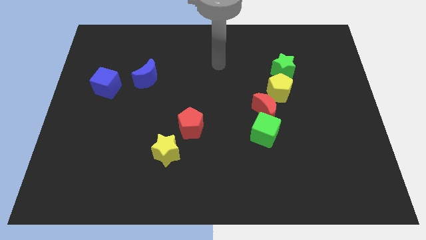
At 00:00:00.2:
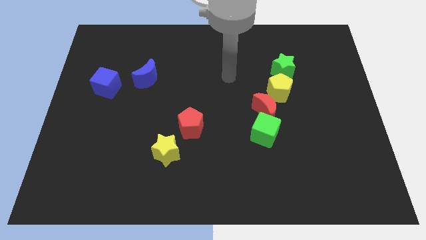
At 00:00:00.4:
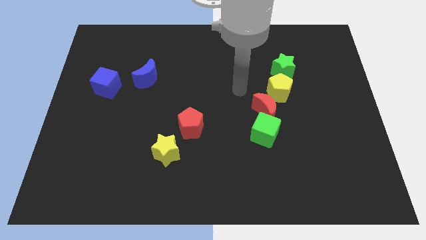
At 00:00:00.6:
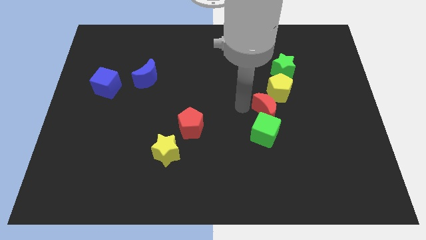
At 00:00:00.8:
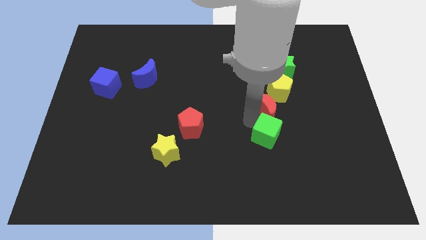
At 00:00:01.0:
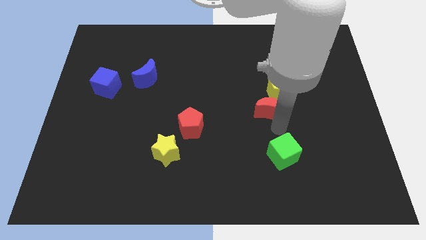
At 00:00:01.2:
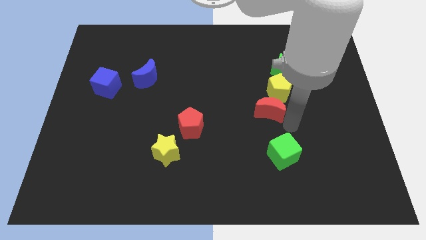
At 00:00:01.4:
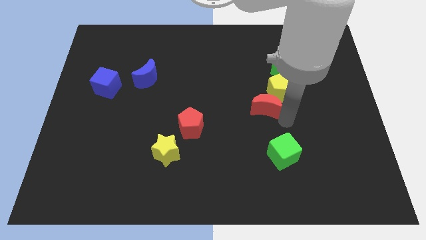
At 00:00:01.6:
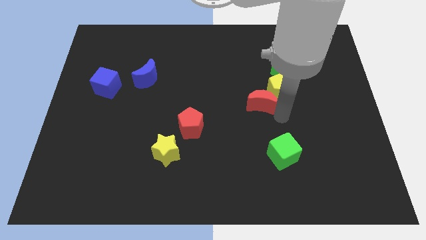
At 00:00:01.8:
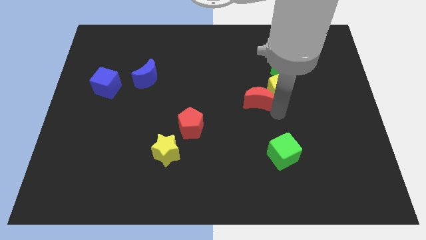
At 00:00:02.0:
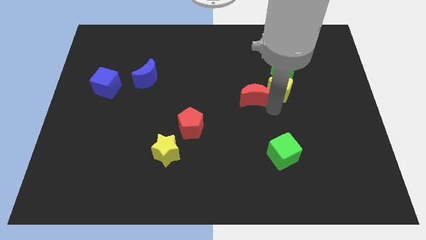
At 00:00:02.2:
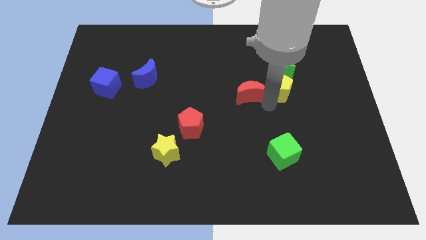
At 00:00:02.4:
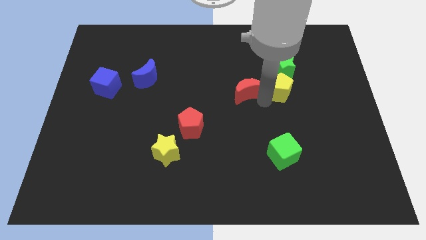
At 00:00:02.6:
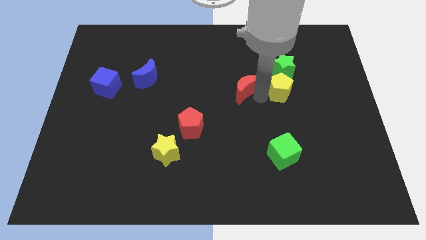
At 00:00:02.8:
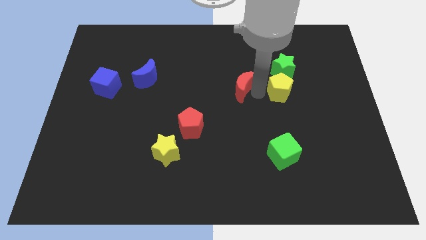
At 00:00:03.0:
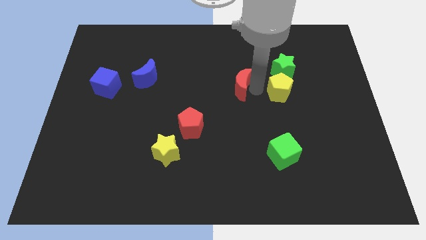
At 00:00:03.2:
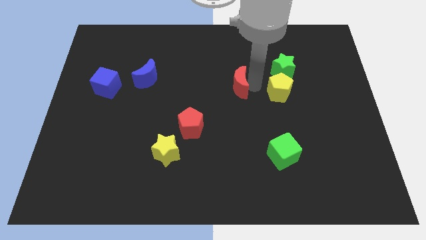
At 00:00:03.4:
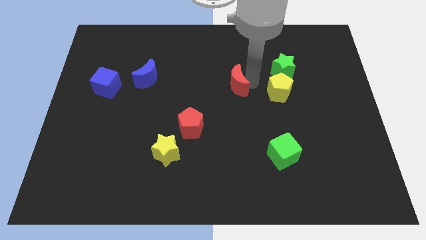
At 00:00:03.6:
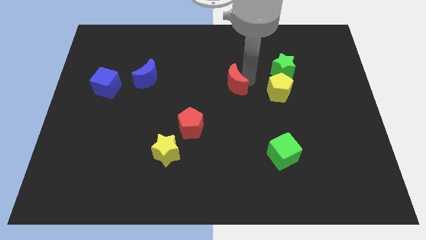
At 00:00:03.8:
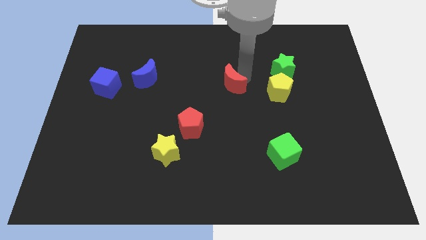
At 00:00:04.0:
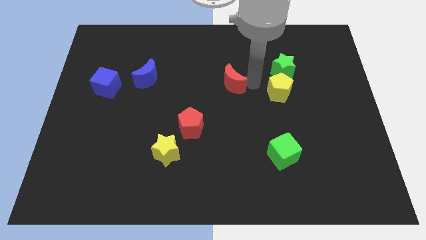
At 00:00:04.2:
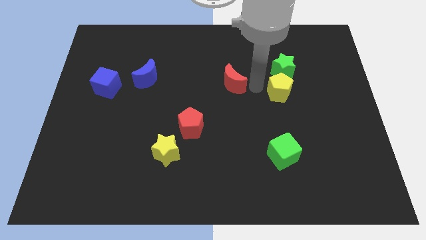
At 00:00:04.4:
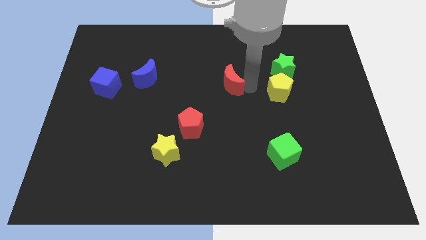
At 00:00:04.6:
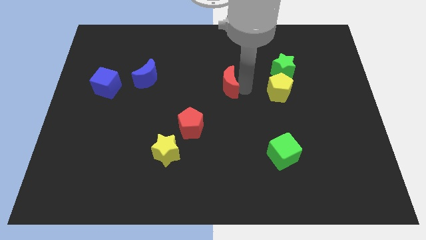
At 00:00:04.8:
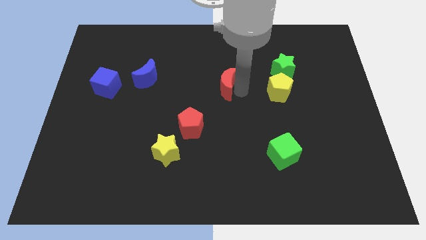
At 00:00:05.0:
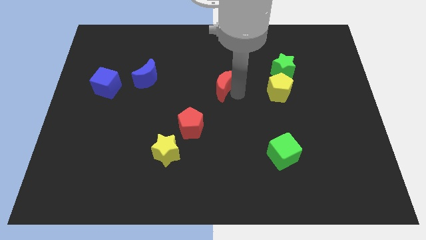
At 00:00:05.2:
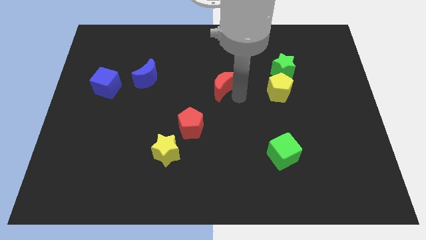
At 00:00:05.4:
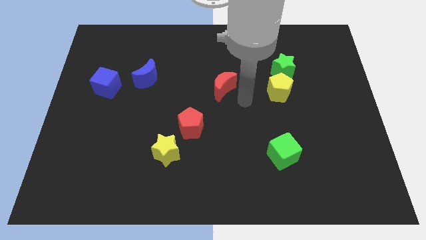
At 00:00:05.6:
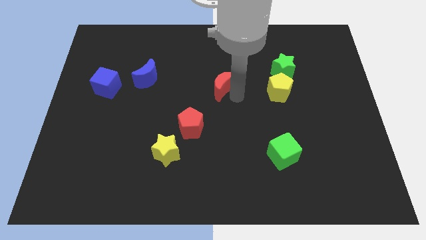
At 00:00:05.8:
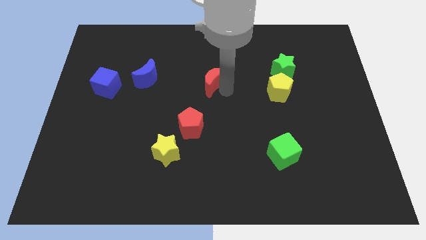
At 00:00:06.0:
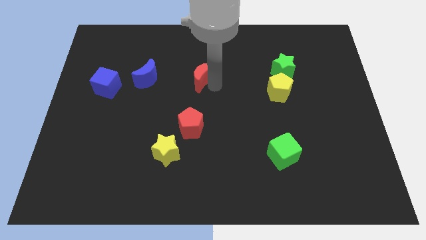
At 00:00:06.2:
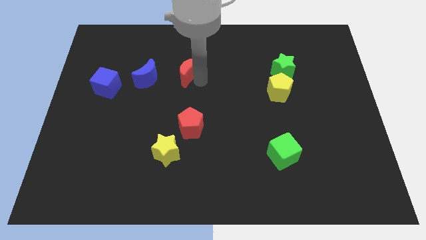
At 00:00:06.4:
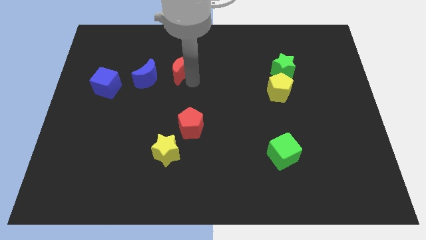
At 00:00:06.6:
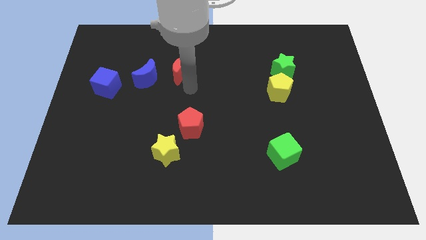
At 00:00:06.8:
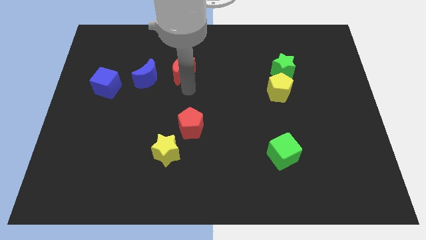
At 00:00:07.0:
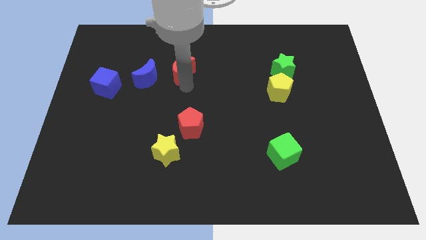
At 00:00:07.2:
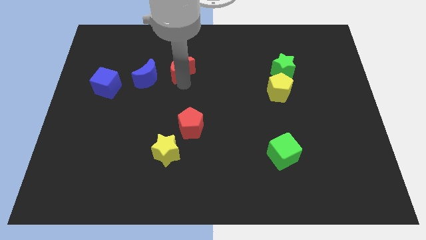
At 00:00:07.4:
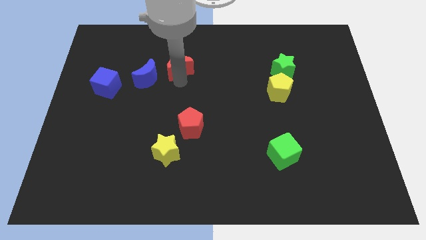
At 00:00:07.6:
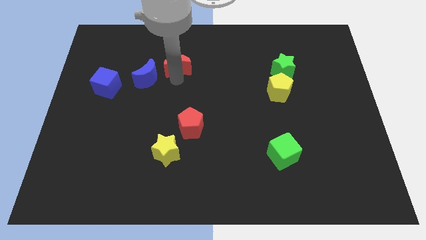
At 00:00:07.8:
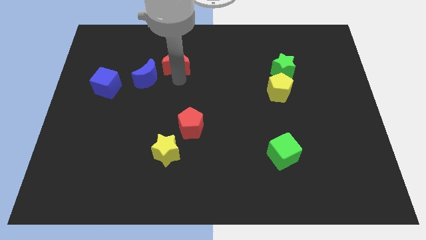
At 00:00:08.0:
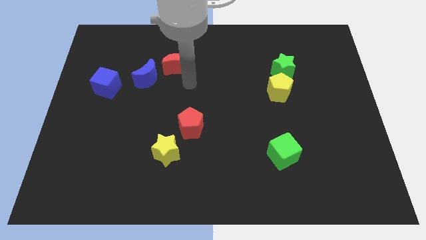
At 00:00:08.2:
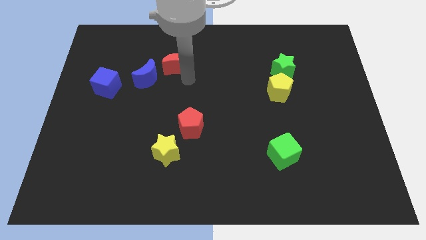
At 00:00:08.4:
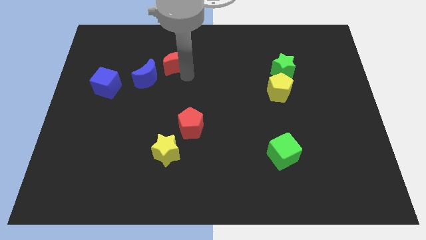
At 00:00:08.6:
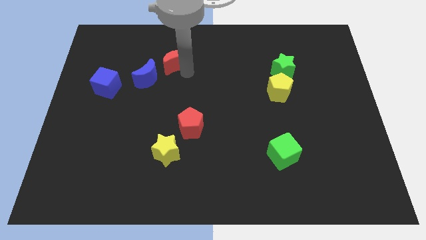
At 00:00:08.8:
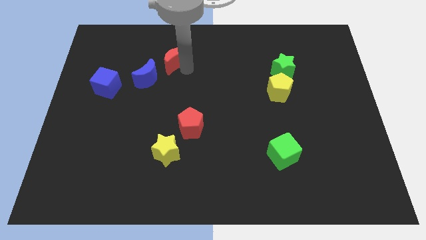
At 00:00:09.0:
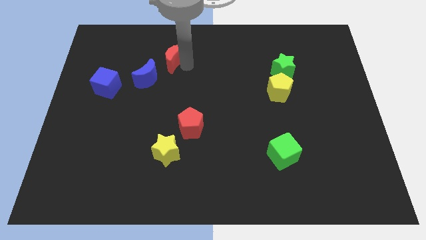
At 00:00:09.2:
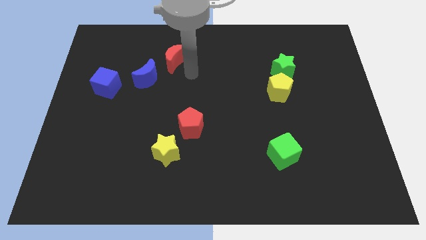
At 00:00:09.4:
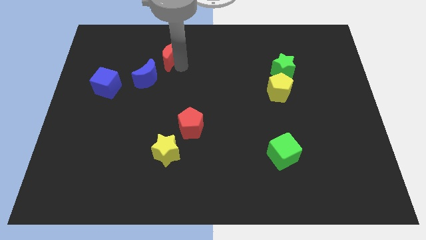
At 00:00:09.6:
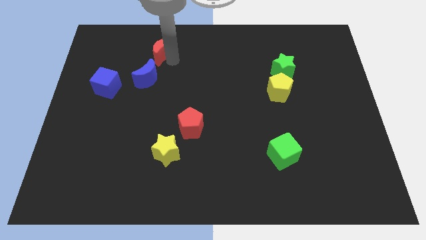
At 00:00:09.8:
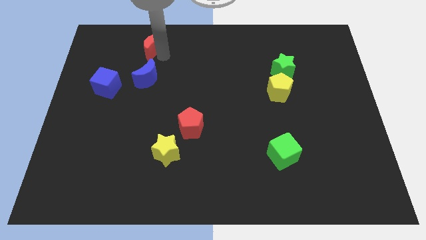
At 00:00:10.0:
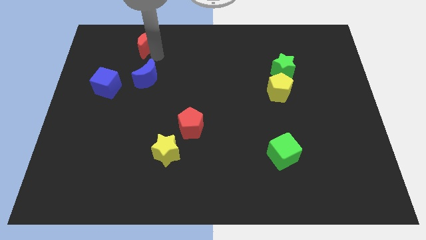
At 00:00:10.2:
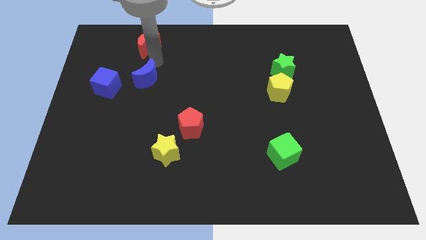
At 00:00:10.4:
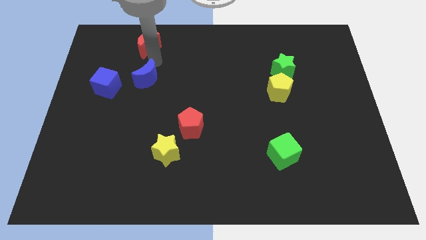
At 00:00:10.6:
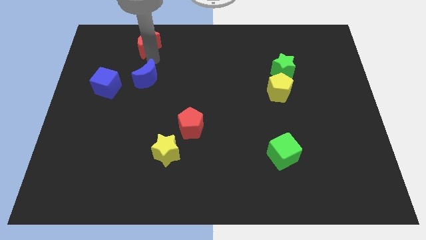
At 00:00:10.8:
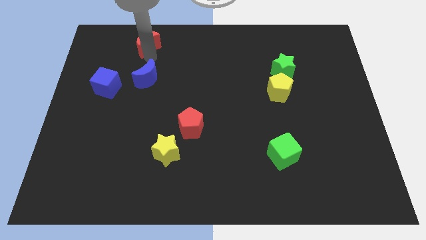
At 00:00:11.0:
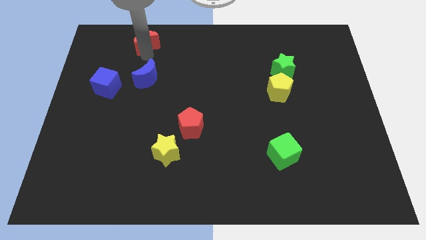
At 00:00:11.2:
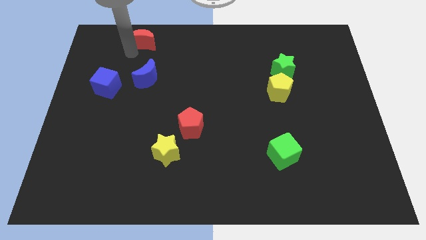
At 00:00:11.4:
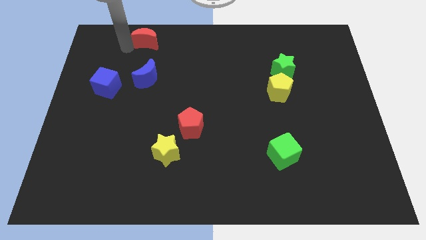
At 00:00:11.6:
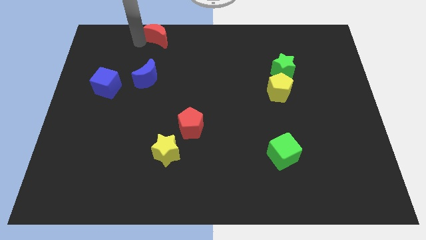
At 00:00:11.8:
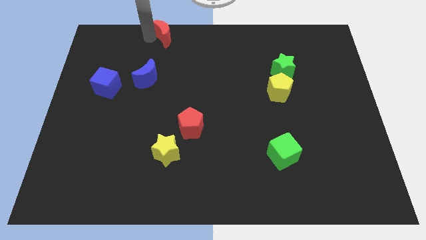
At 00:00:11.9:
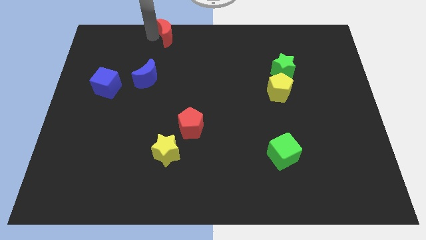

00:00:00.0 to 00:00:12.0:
move the red moon to the top
